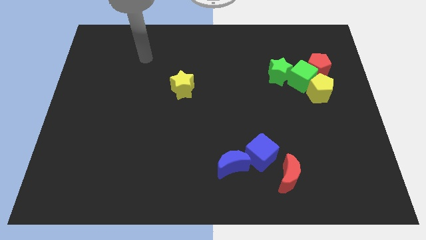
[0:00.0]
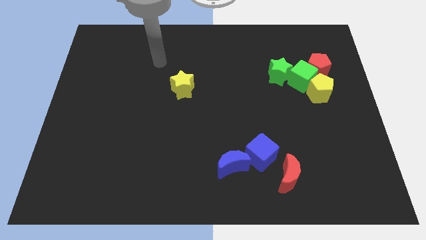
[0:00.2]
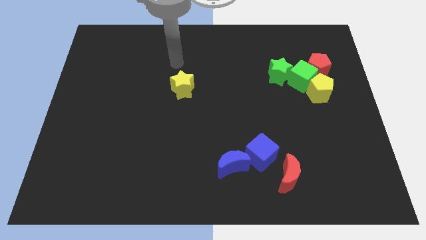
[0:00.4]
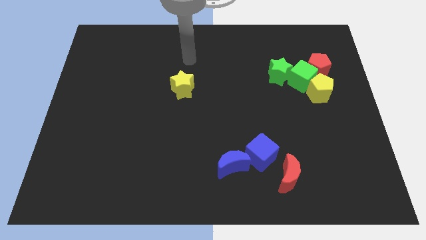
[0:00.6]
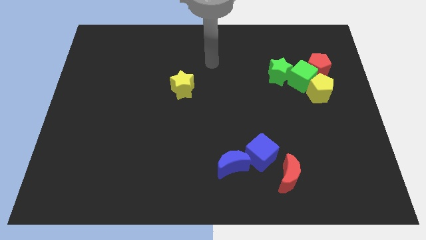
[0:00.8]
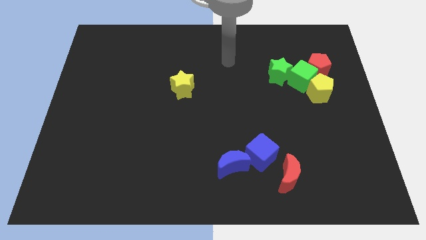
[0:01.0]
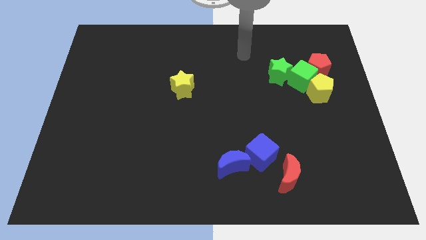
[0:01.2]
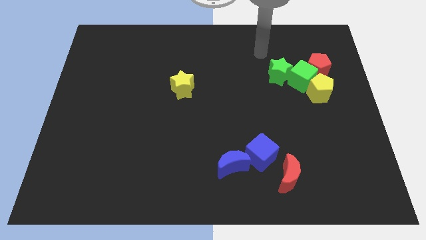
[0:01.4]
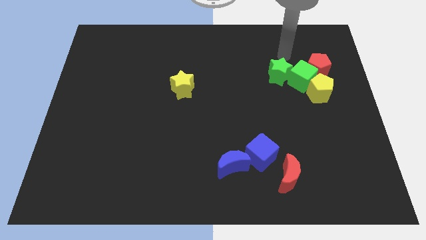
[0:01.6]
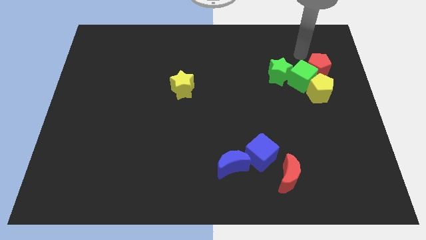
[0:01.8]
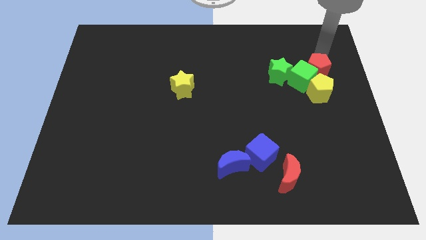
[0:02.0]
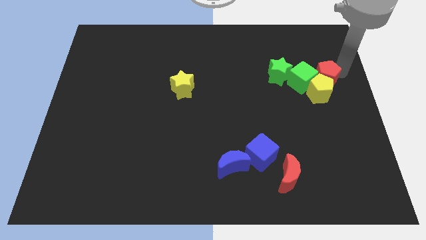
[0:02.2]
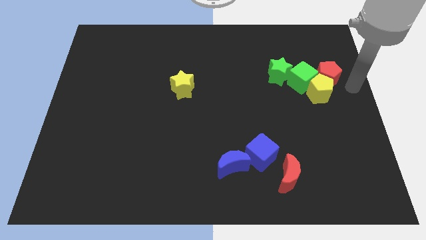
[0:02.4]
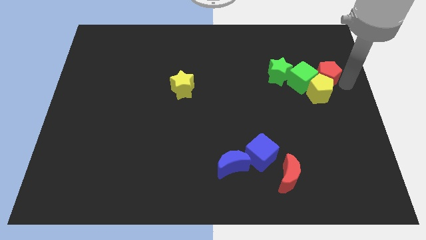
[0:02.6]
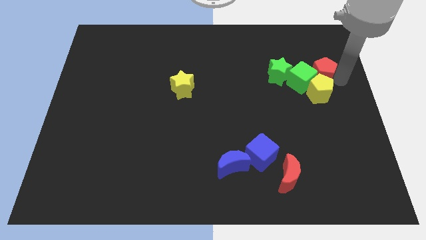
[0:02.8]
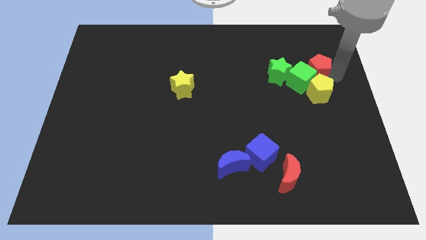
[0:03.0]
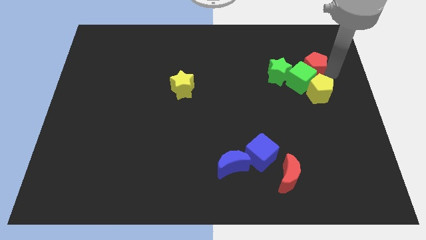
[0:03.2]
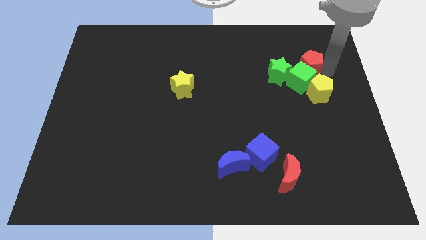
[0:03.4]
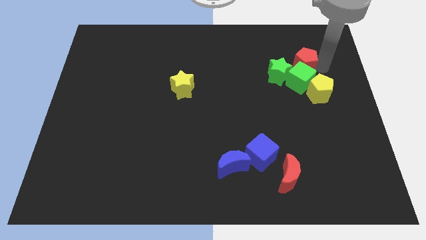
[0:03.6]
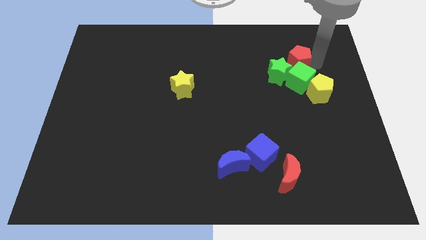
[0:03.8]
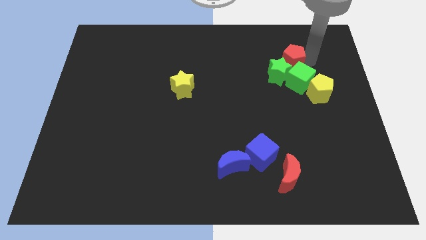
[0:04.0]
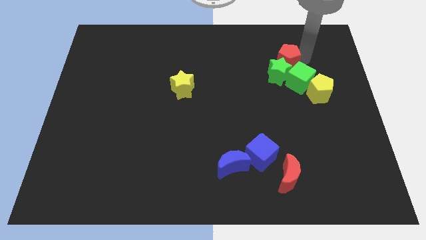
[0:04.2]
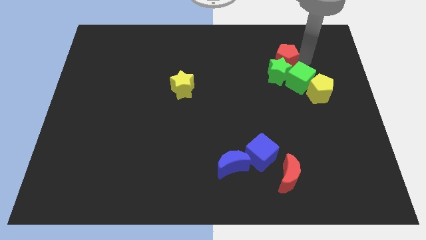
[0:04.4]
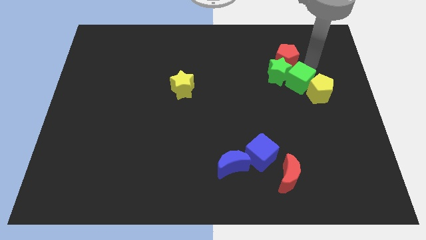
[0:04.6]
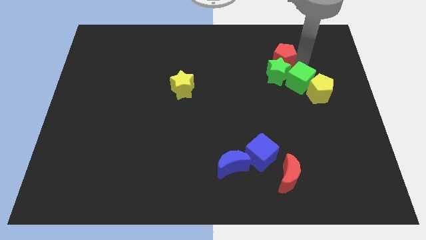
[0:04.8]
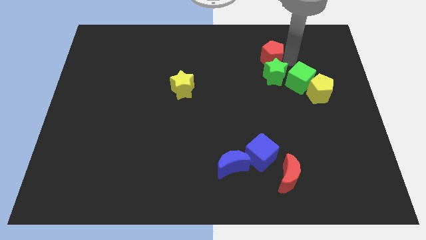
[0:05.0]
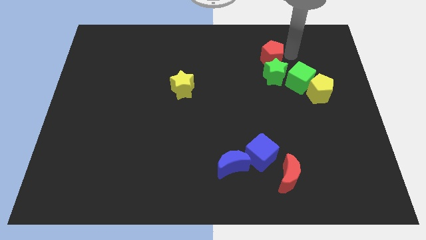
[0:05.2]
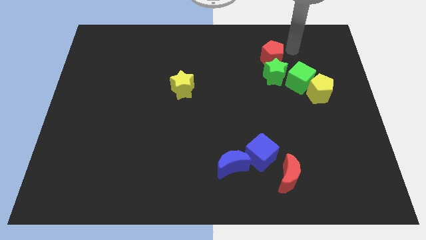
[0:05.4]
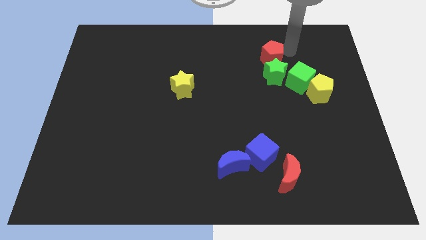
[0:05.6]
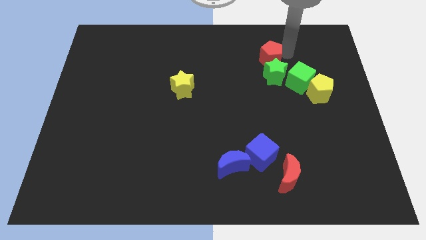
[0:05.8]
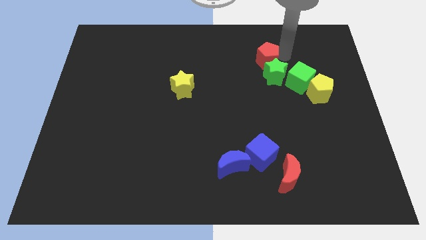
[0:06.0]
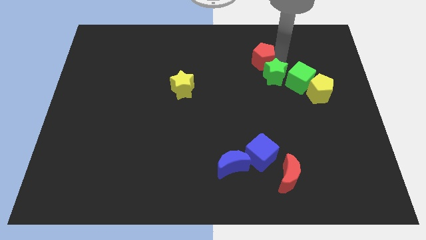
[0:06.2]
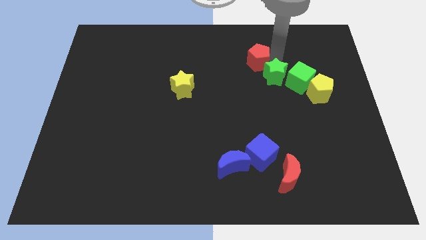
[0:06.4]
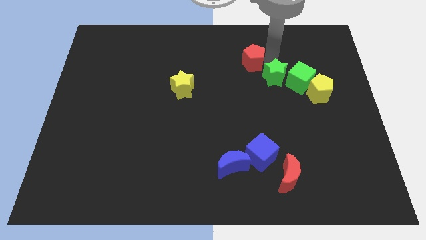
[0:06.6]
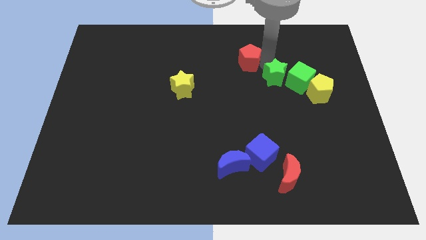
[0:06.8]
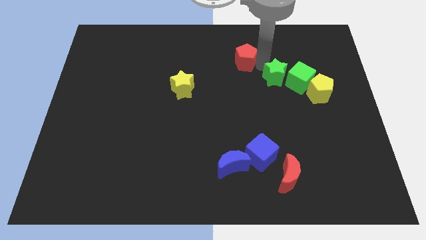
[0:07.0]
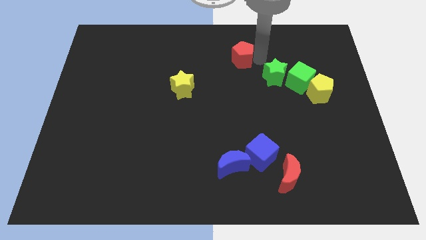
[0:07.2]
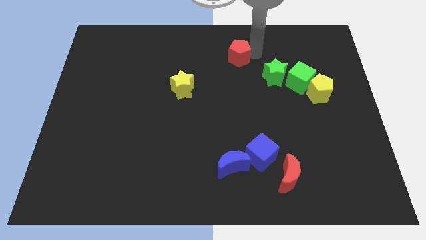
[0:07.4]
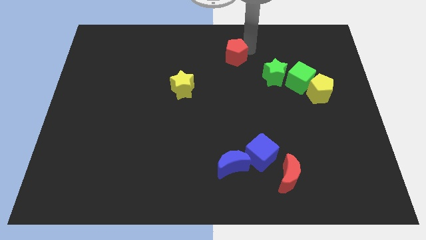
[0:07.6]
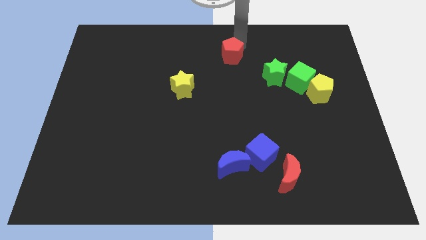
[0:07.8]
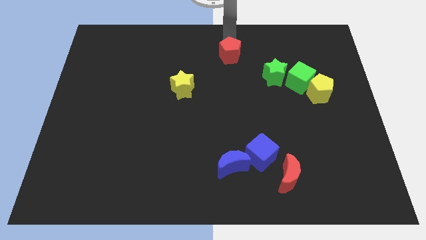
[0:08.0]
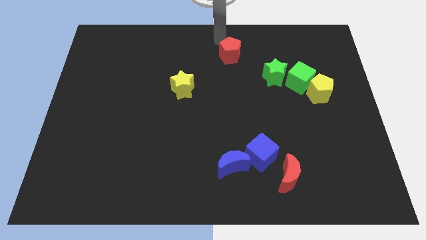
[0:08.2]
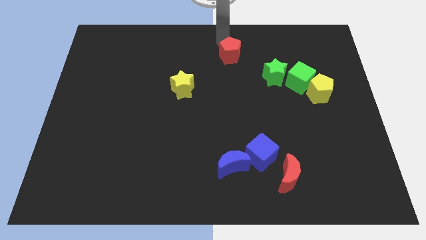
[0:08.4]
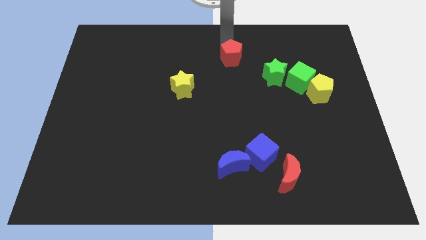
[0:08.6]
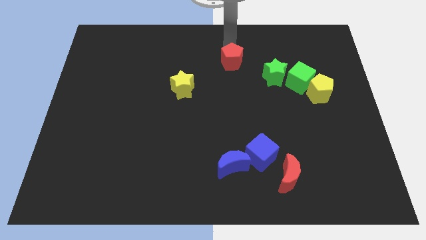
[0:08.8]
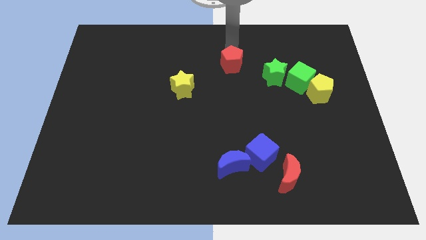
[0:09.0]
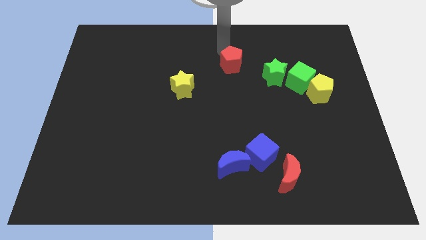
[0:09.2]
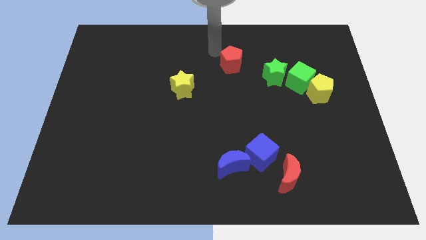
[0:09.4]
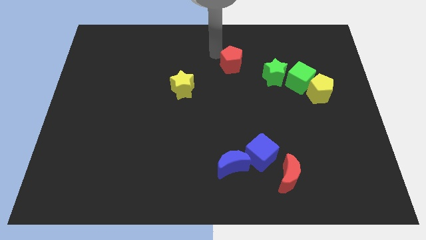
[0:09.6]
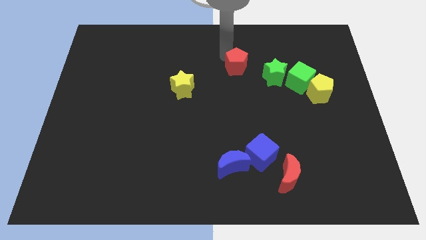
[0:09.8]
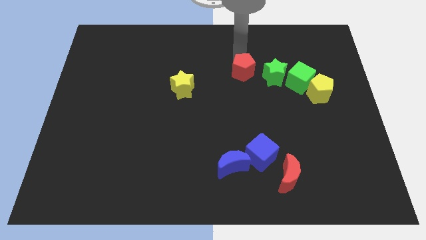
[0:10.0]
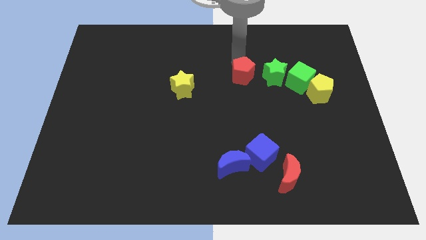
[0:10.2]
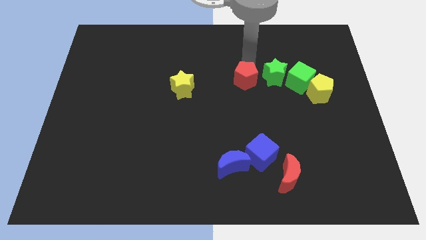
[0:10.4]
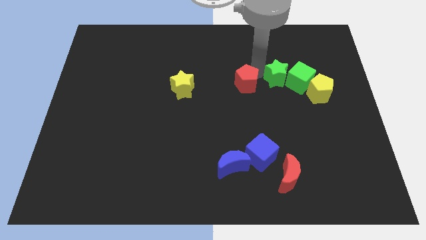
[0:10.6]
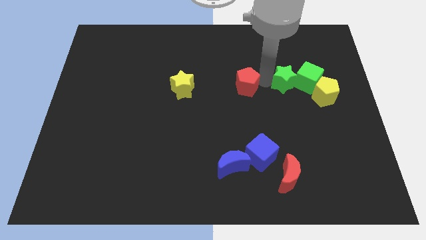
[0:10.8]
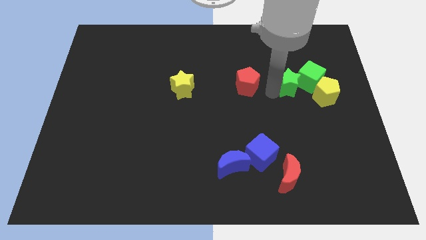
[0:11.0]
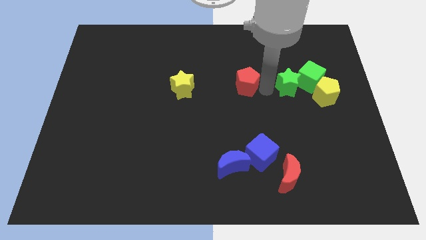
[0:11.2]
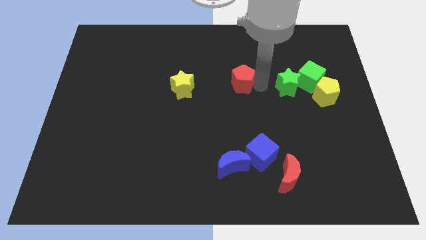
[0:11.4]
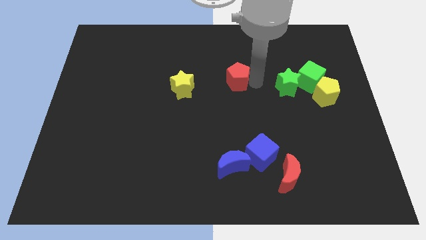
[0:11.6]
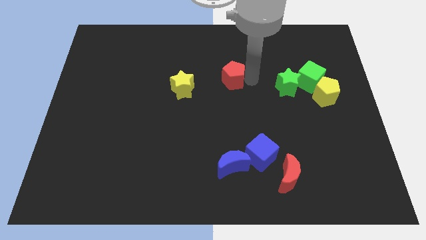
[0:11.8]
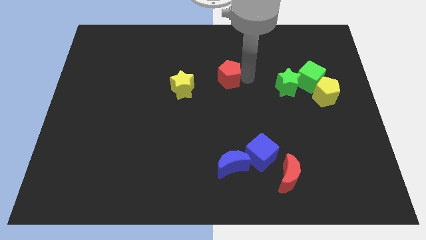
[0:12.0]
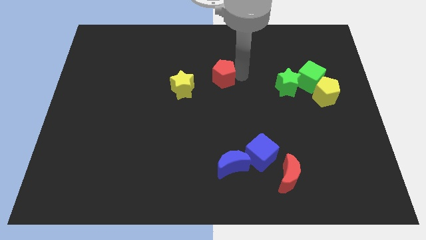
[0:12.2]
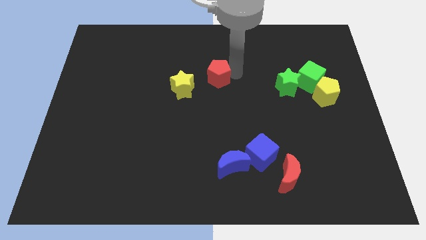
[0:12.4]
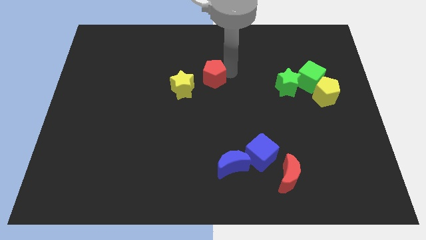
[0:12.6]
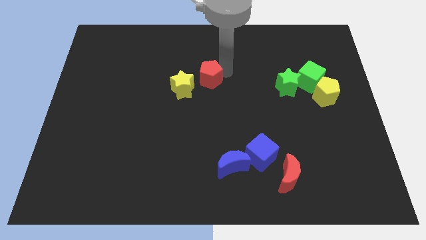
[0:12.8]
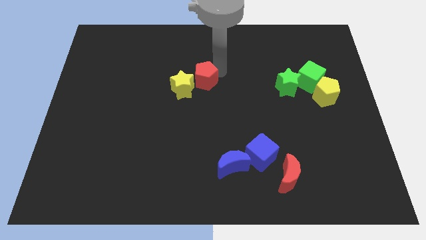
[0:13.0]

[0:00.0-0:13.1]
put the red pentagon towards the yellow star

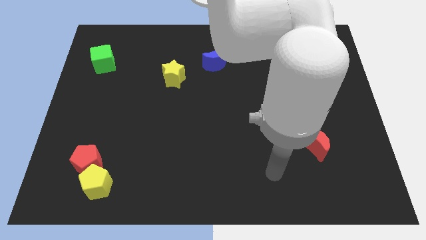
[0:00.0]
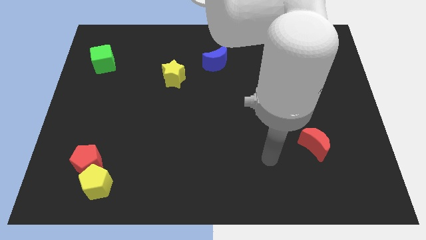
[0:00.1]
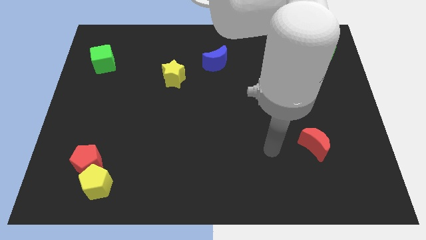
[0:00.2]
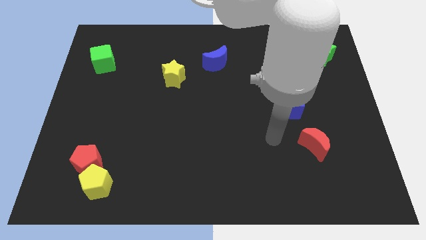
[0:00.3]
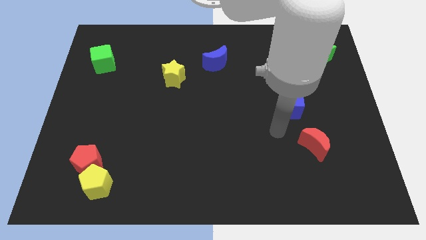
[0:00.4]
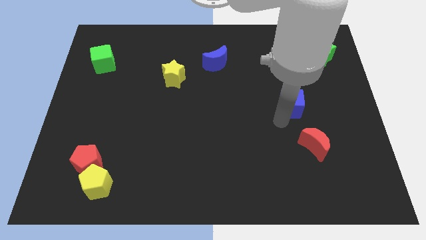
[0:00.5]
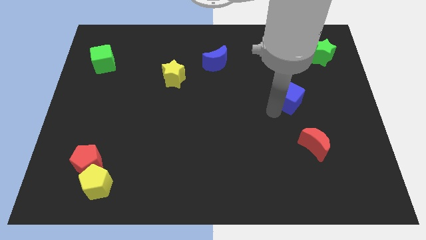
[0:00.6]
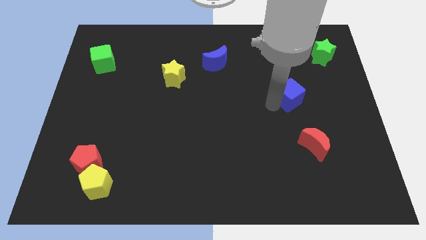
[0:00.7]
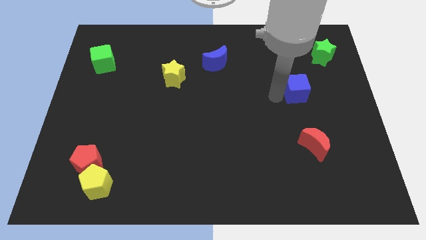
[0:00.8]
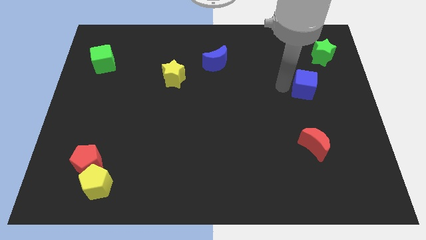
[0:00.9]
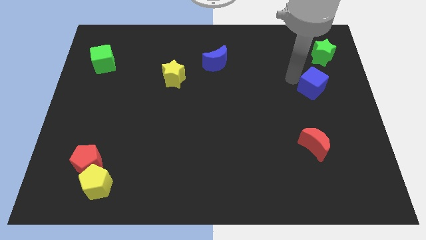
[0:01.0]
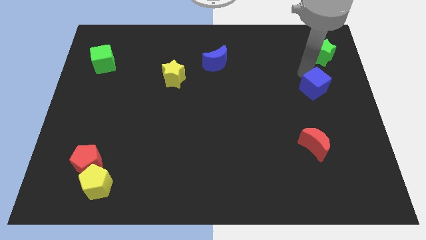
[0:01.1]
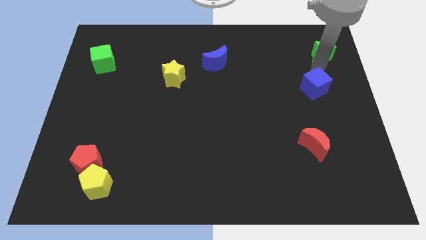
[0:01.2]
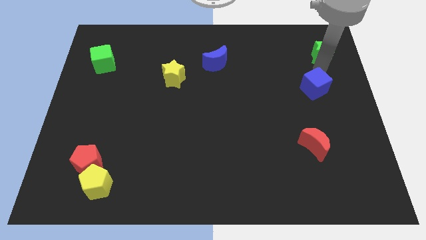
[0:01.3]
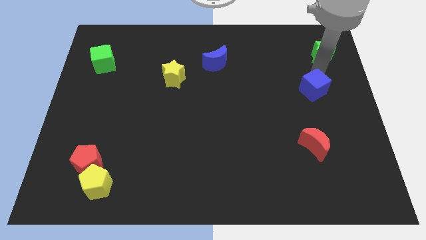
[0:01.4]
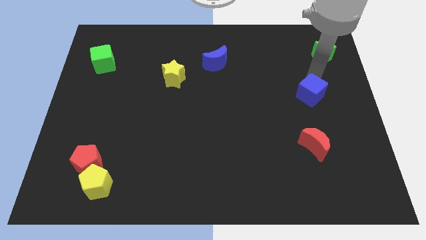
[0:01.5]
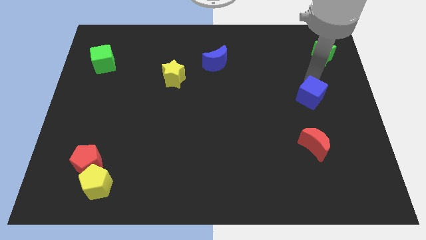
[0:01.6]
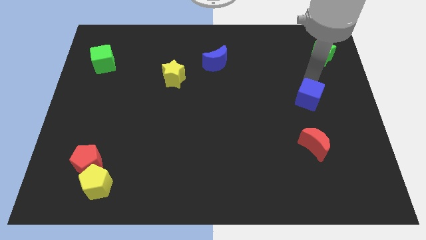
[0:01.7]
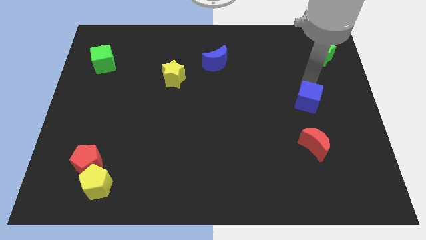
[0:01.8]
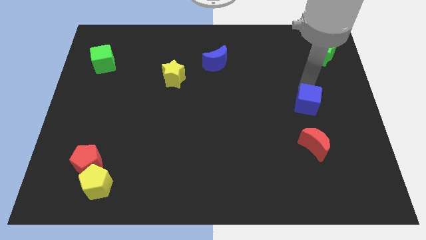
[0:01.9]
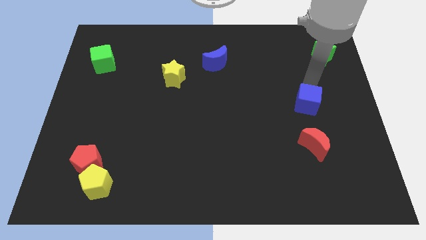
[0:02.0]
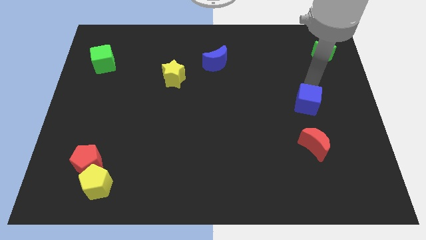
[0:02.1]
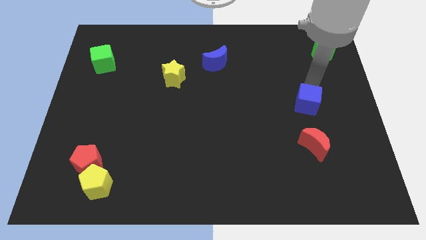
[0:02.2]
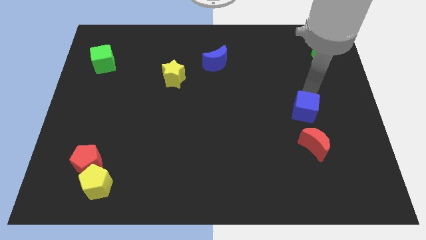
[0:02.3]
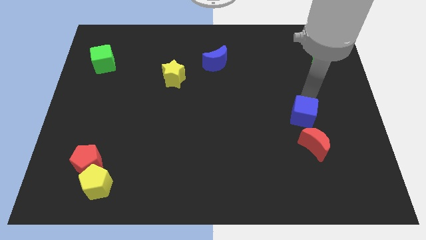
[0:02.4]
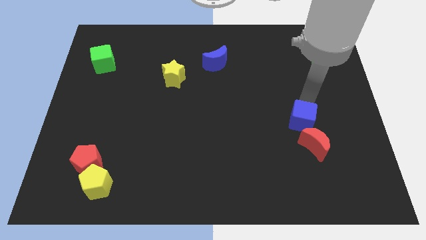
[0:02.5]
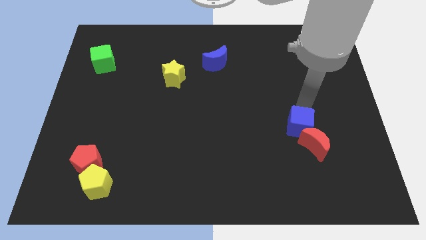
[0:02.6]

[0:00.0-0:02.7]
slide the blue cube close to the red moon
